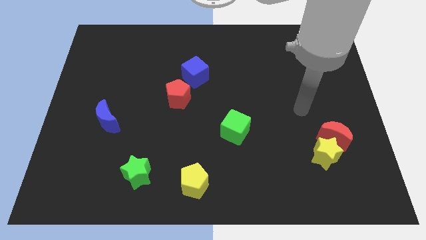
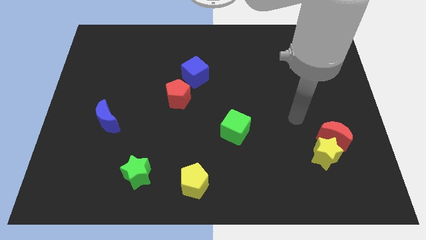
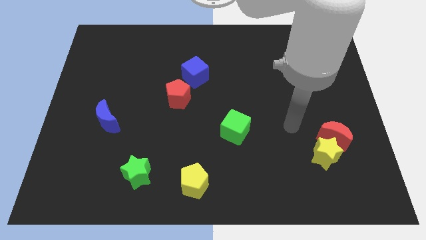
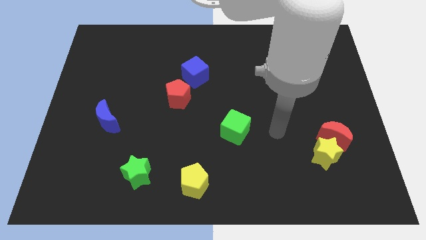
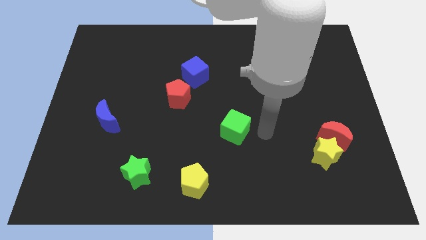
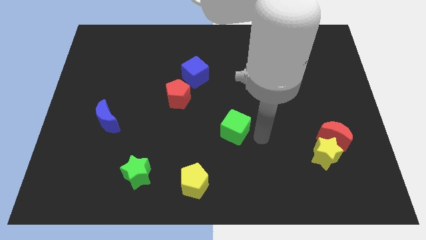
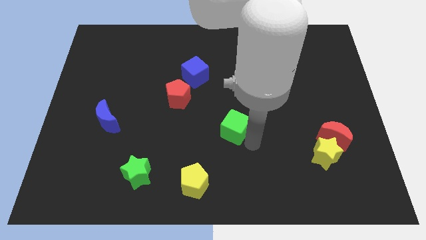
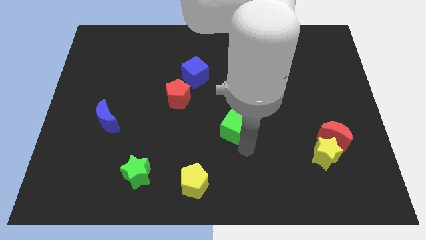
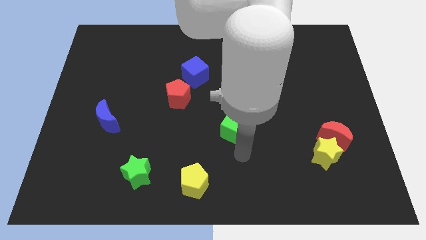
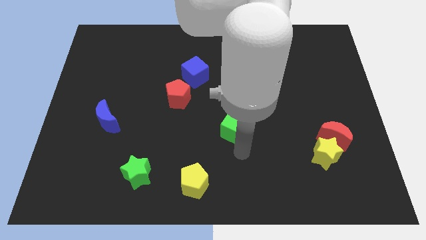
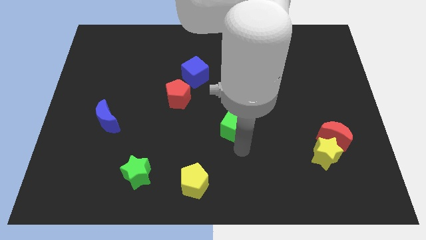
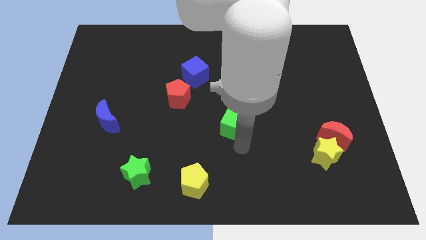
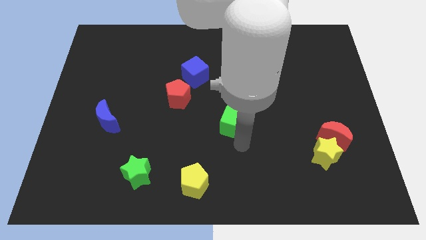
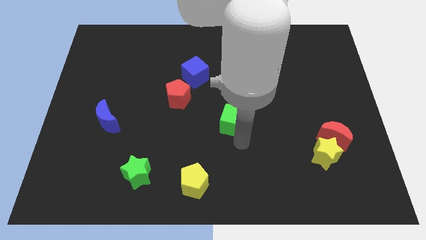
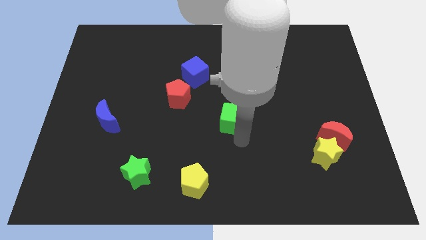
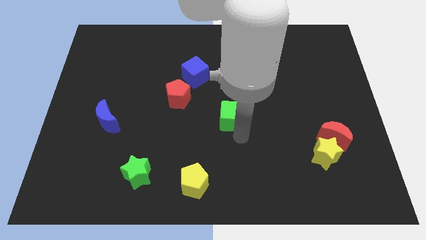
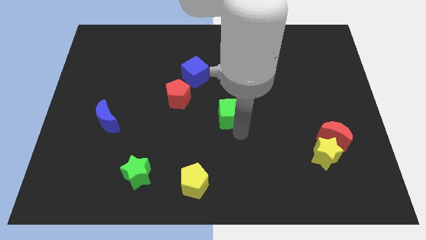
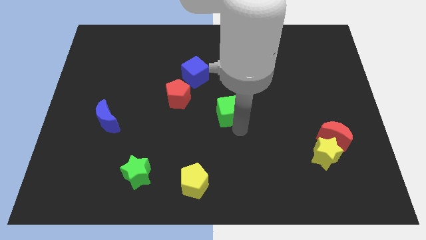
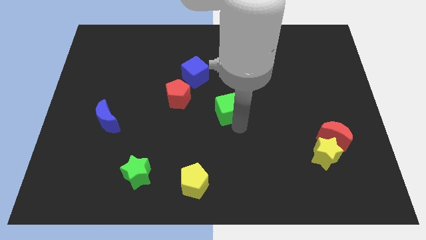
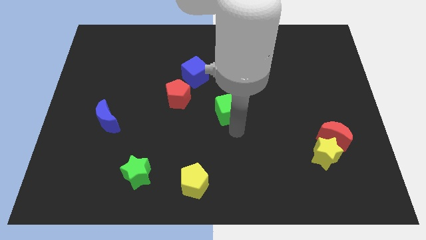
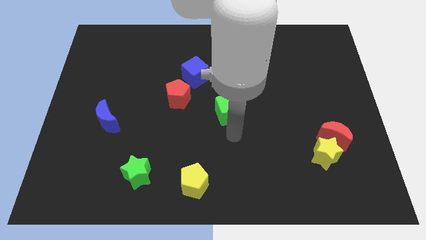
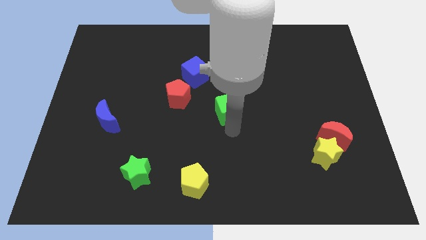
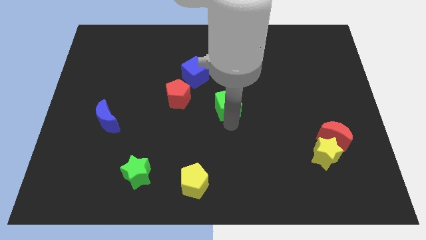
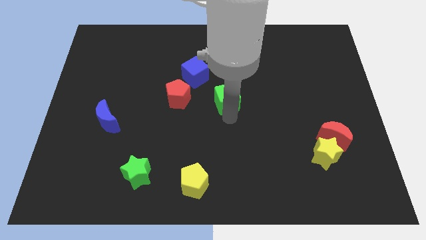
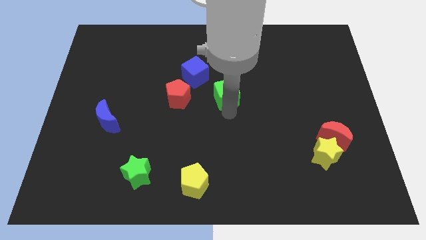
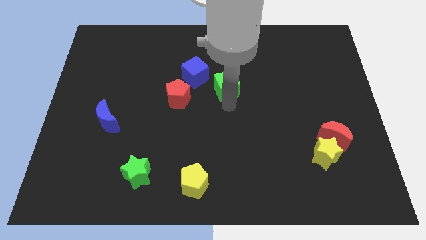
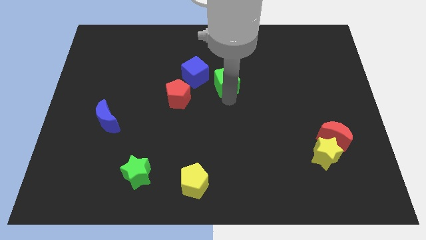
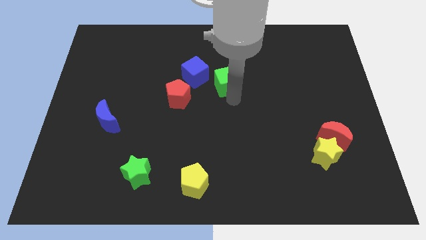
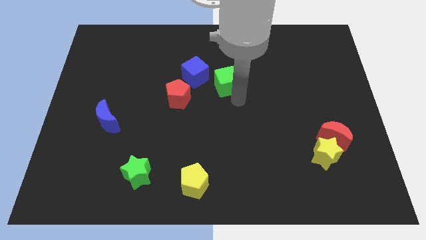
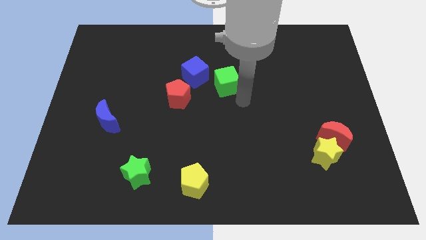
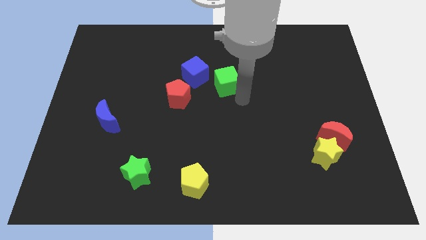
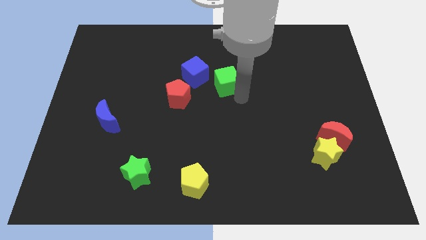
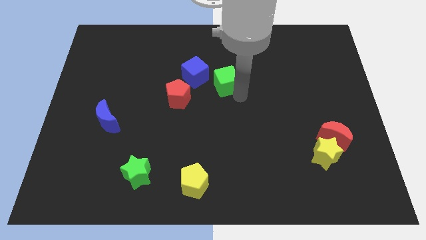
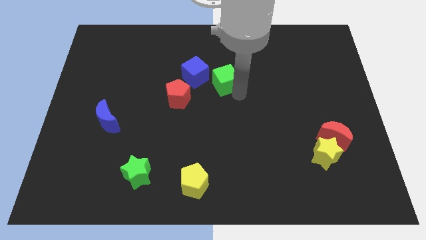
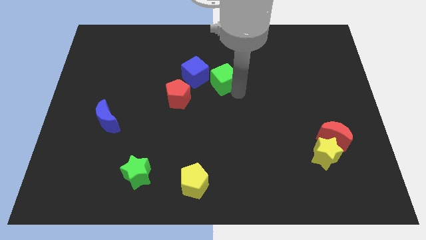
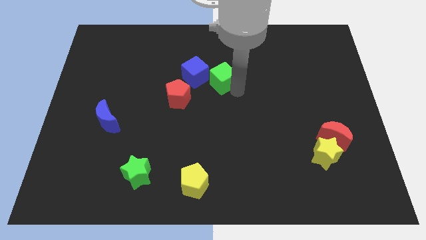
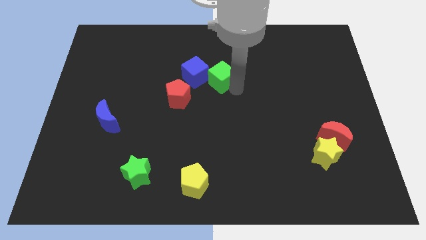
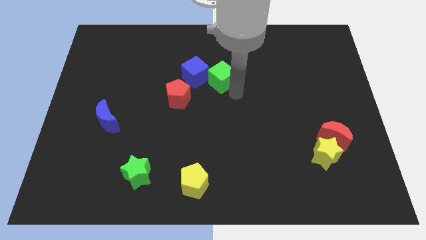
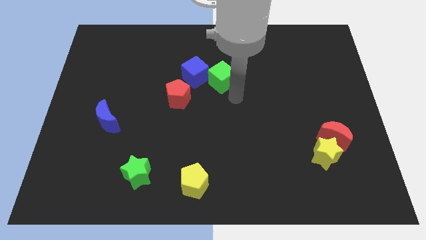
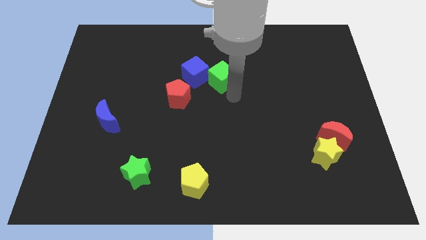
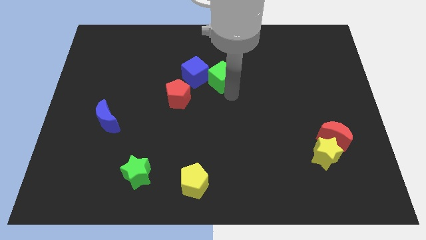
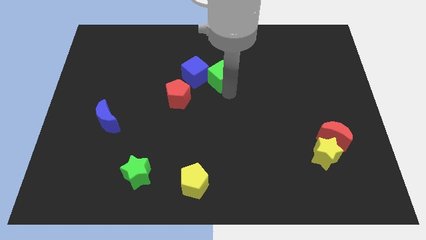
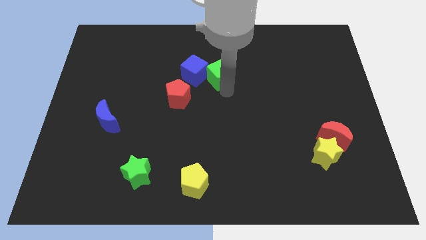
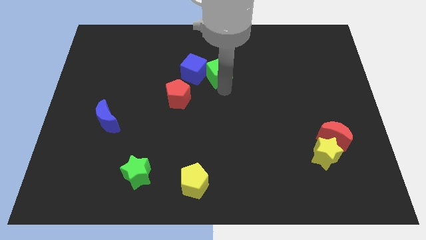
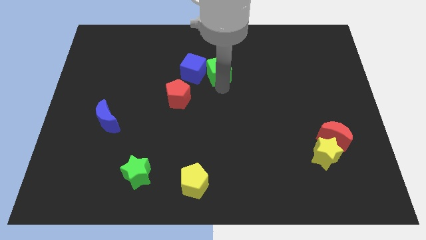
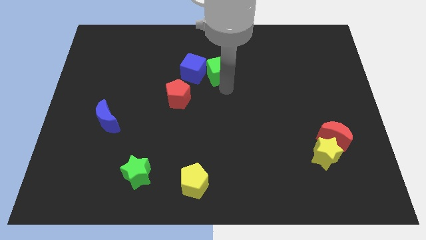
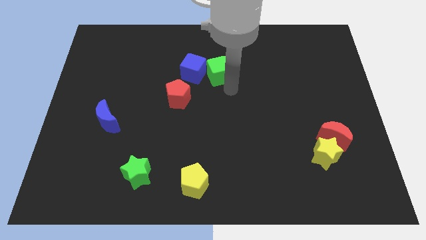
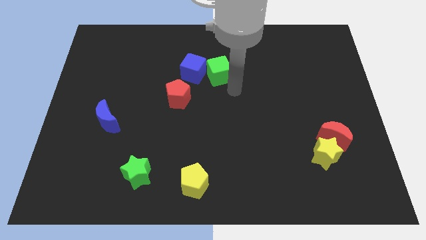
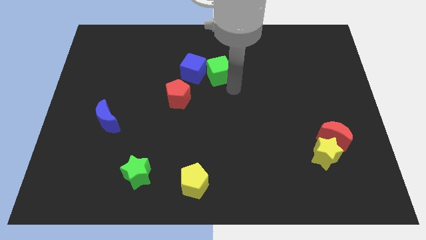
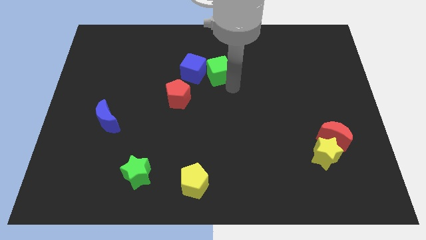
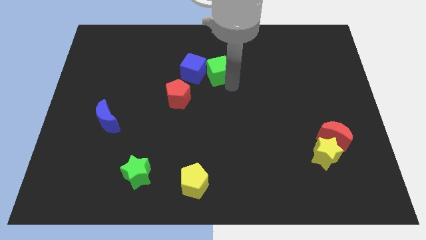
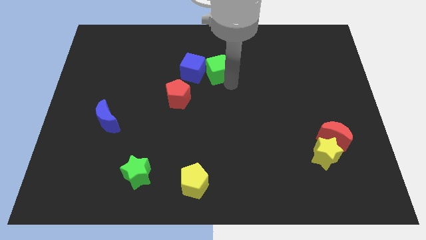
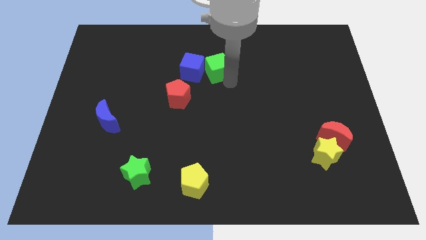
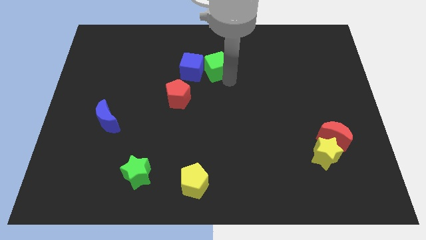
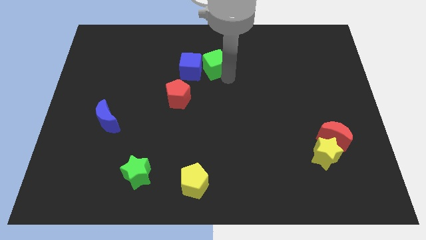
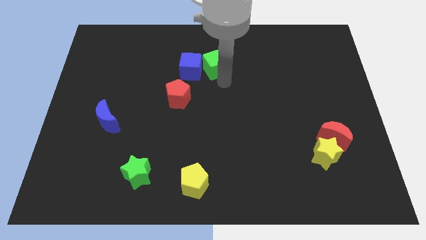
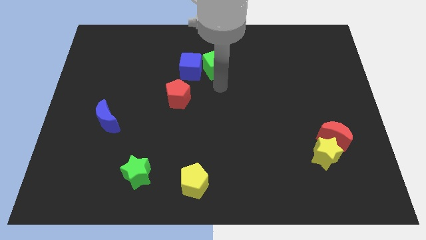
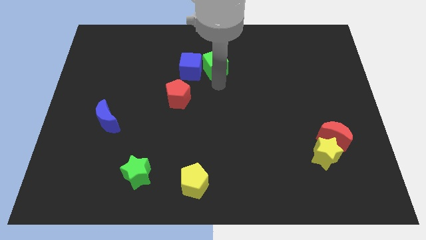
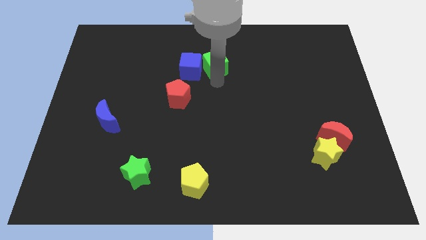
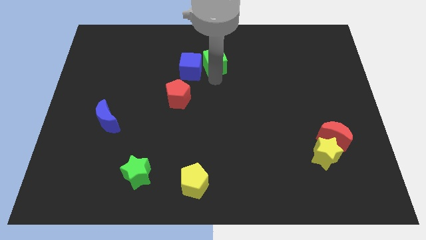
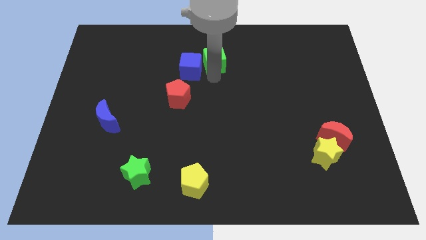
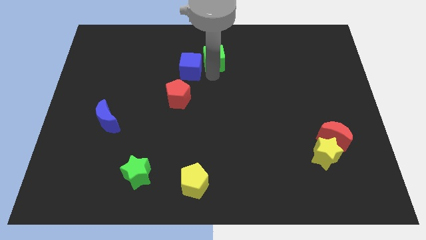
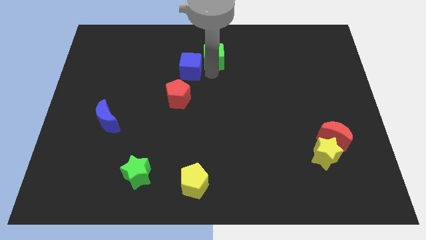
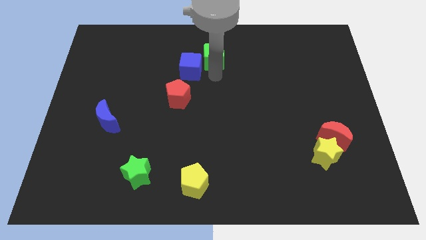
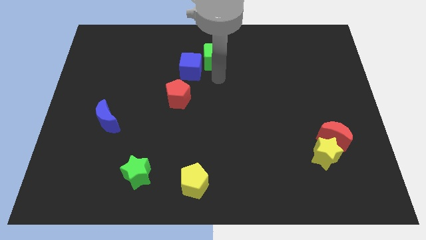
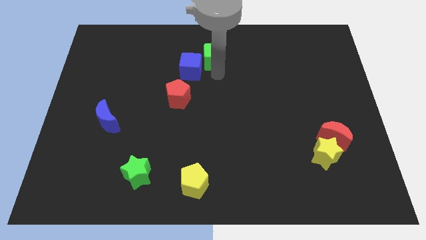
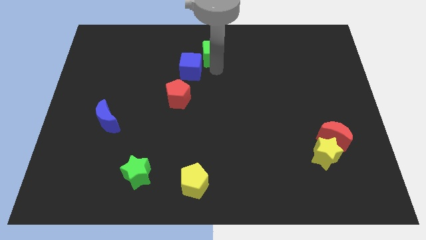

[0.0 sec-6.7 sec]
slide the green cube to the top
